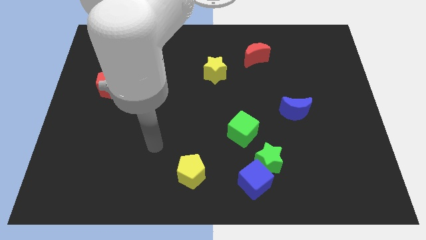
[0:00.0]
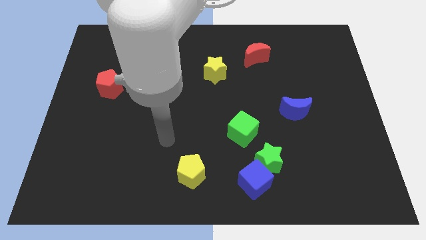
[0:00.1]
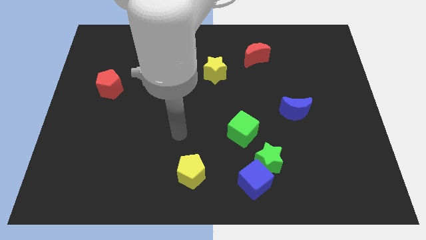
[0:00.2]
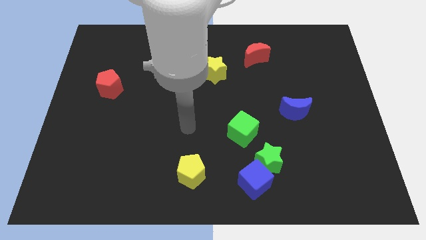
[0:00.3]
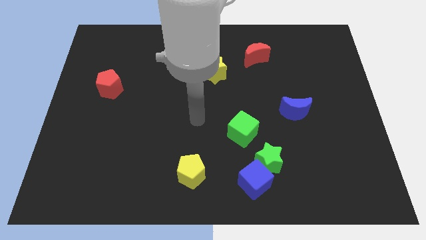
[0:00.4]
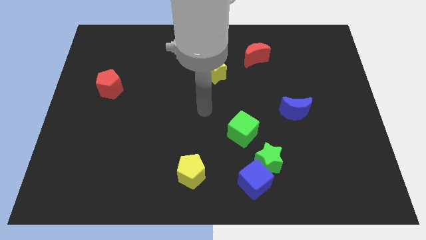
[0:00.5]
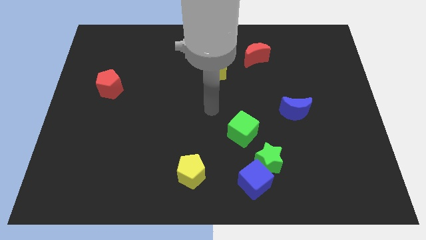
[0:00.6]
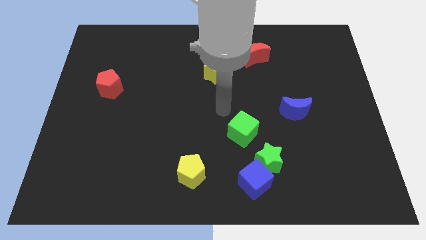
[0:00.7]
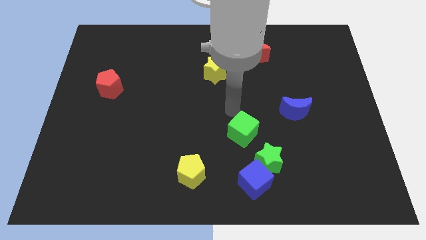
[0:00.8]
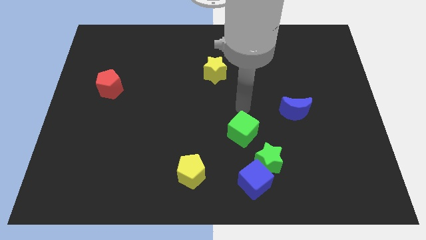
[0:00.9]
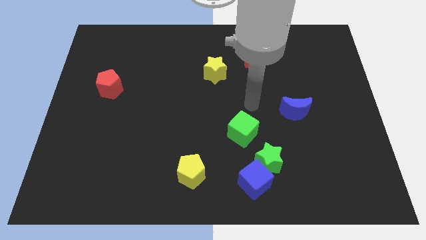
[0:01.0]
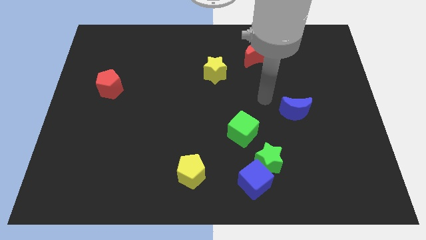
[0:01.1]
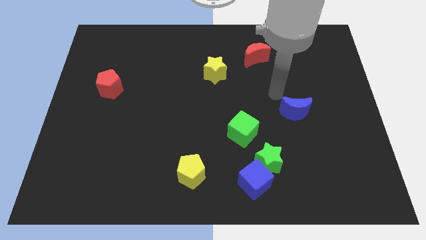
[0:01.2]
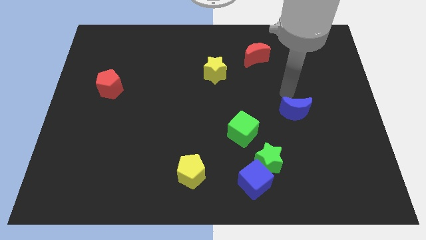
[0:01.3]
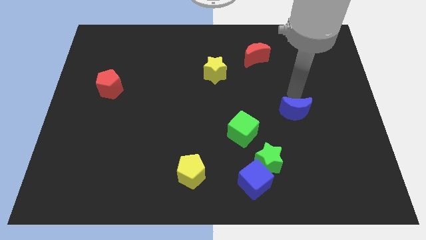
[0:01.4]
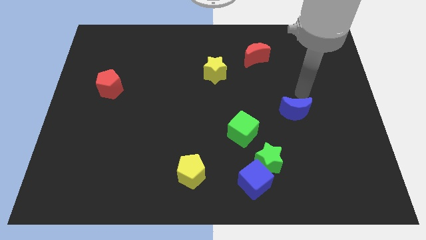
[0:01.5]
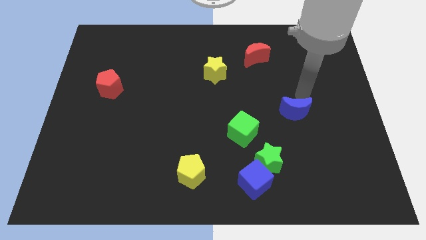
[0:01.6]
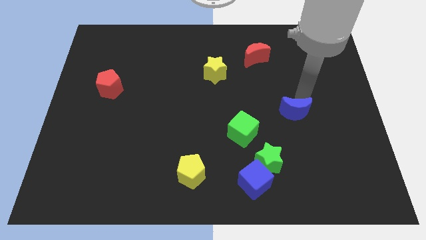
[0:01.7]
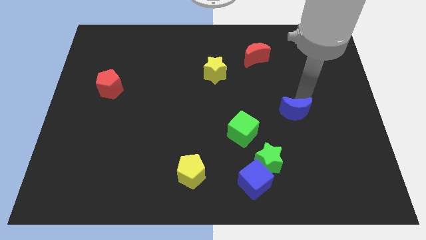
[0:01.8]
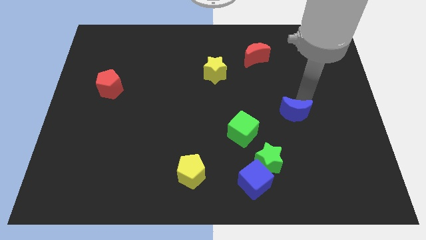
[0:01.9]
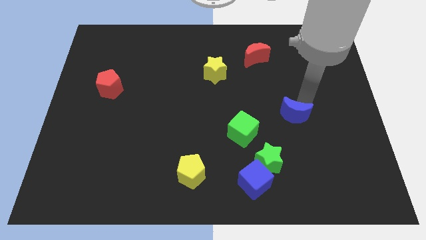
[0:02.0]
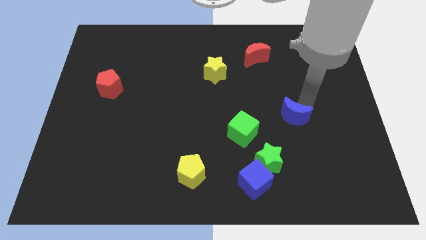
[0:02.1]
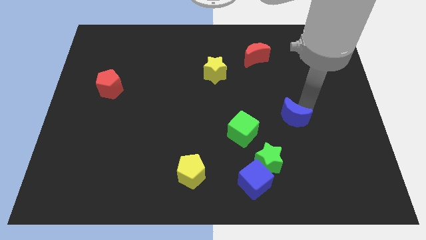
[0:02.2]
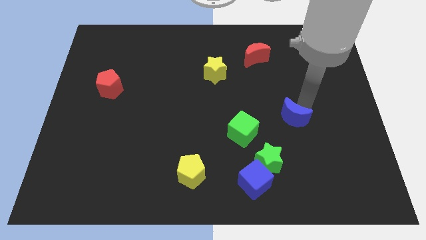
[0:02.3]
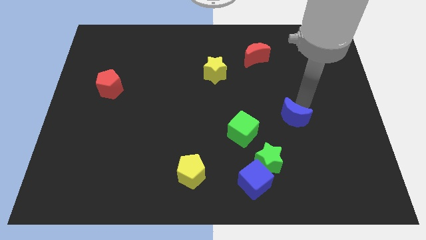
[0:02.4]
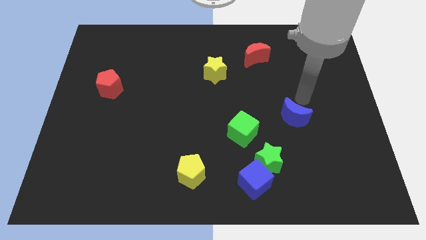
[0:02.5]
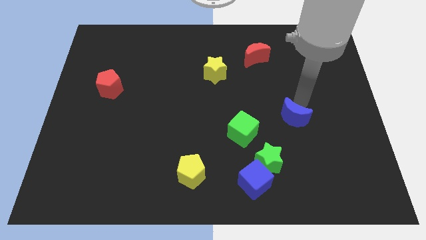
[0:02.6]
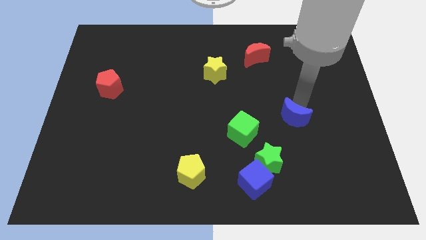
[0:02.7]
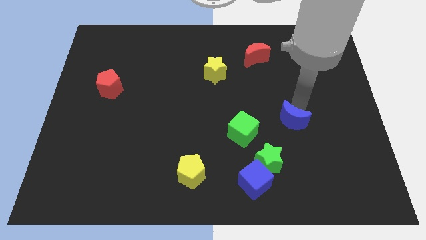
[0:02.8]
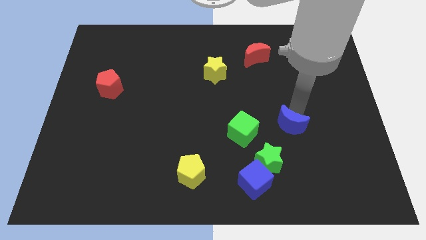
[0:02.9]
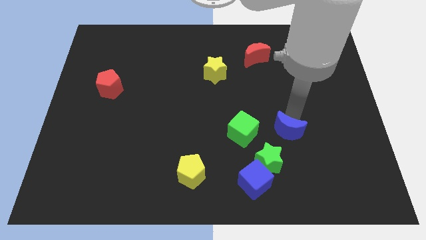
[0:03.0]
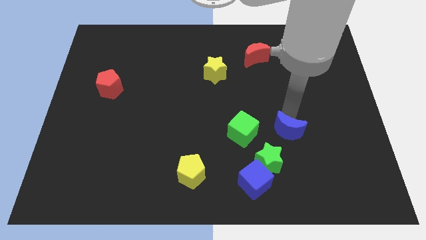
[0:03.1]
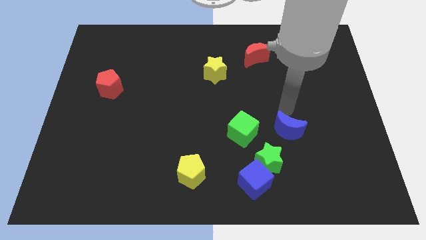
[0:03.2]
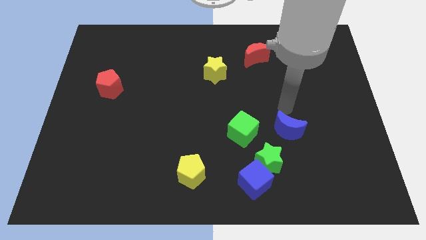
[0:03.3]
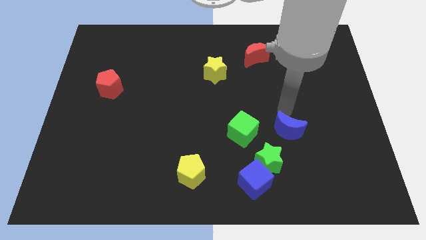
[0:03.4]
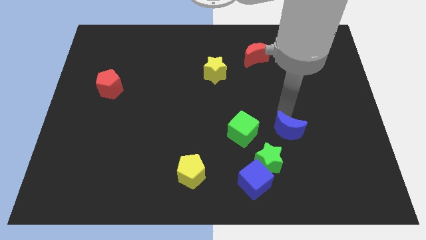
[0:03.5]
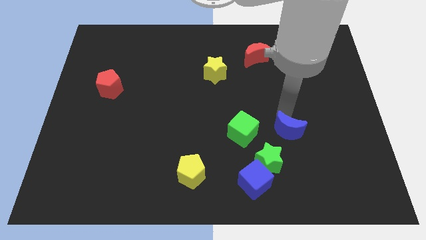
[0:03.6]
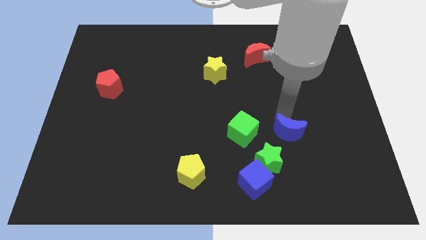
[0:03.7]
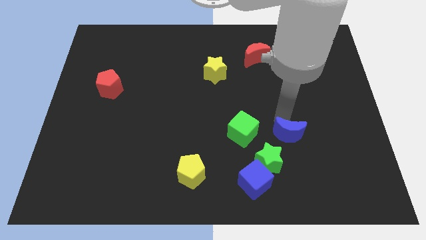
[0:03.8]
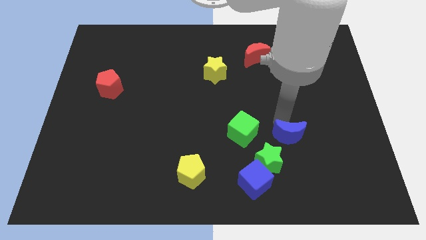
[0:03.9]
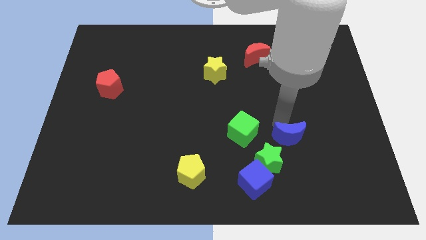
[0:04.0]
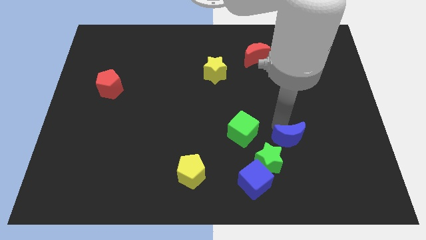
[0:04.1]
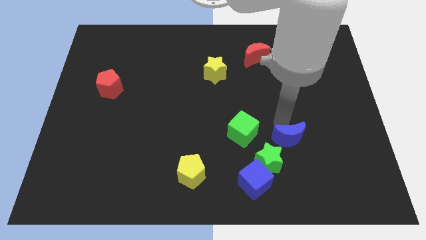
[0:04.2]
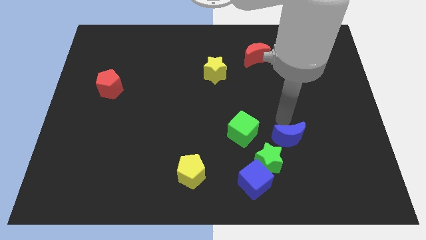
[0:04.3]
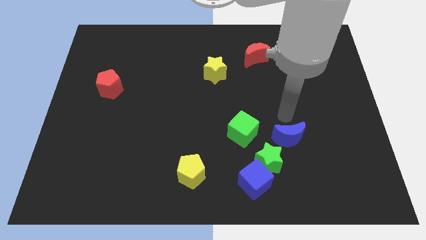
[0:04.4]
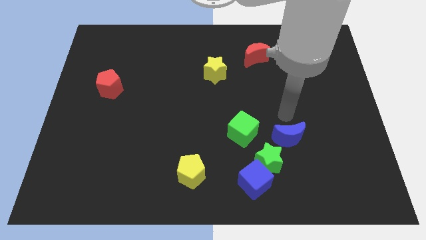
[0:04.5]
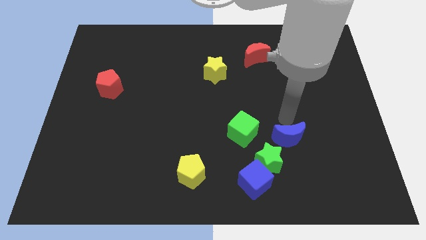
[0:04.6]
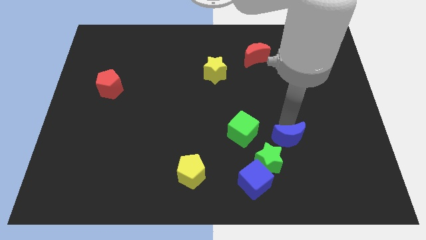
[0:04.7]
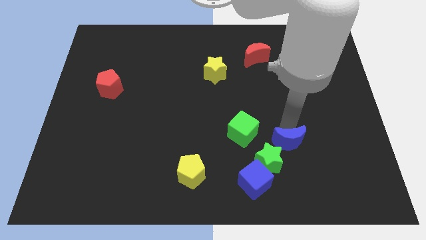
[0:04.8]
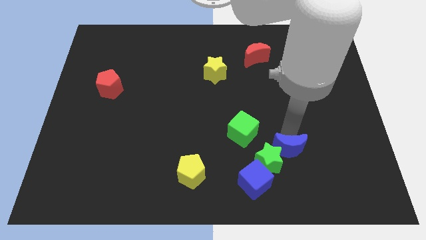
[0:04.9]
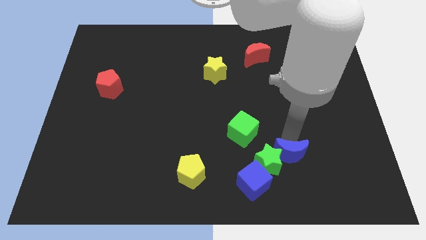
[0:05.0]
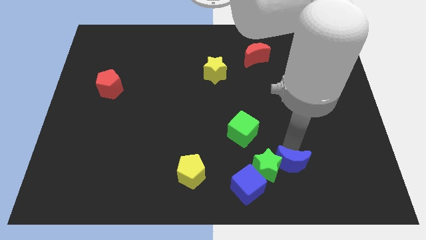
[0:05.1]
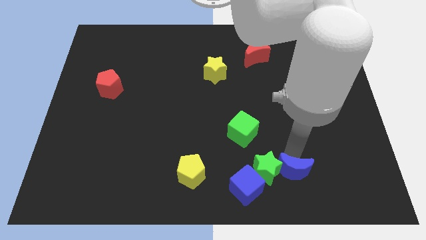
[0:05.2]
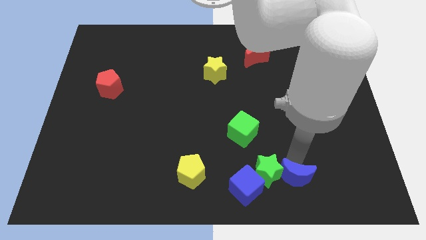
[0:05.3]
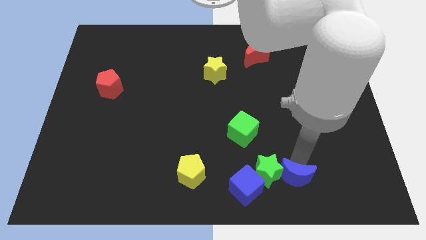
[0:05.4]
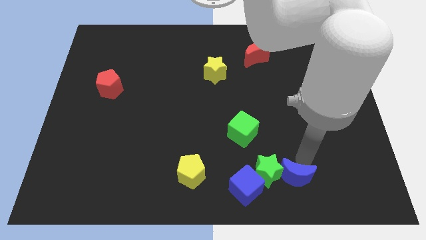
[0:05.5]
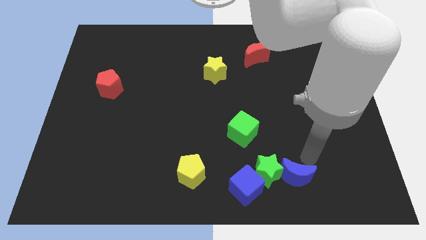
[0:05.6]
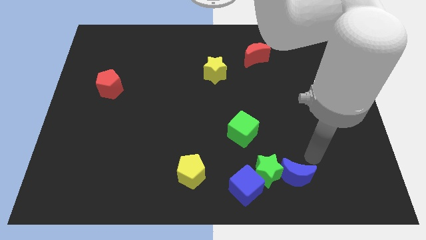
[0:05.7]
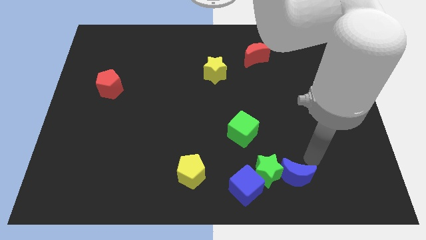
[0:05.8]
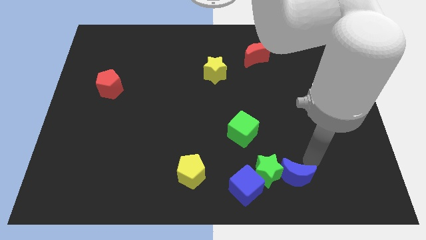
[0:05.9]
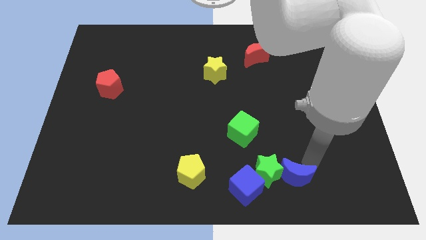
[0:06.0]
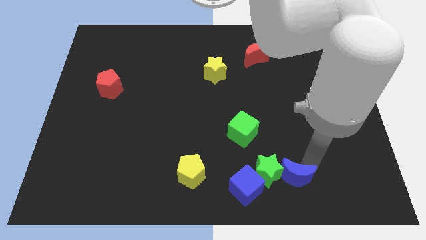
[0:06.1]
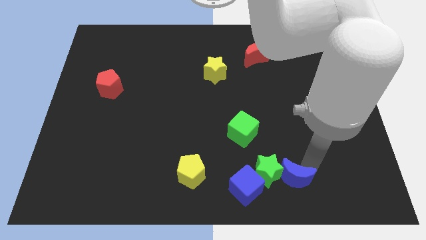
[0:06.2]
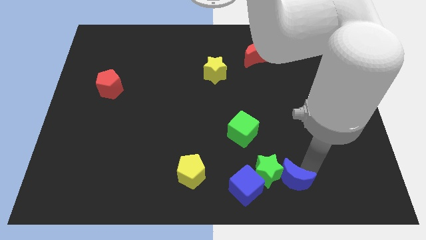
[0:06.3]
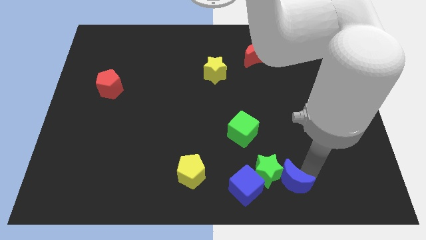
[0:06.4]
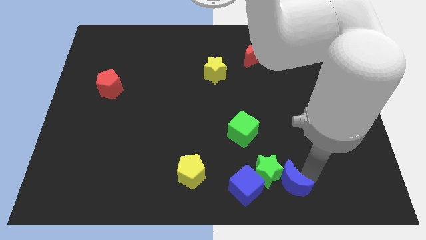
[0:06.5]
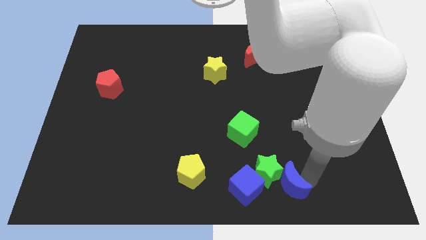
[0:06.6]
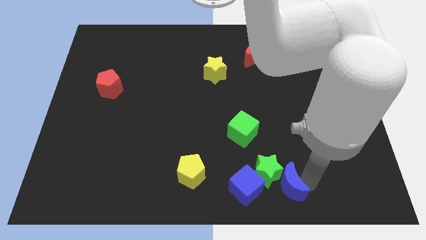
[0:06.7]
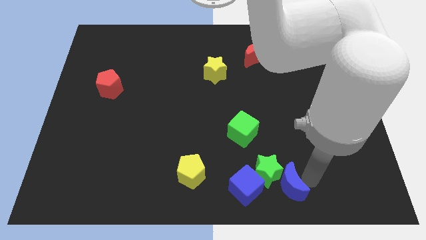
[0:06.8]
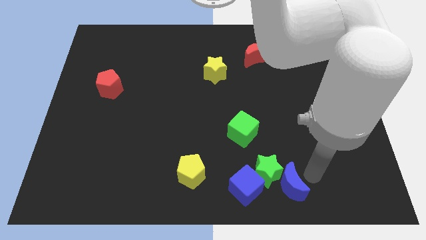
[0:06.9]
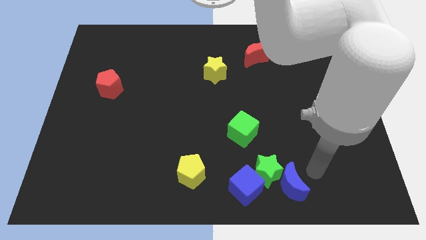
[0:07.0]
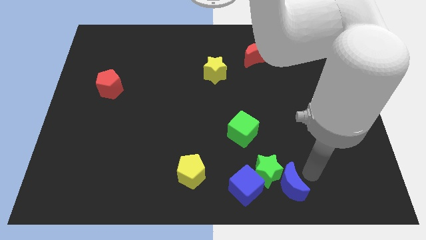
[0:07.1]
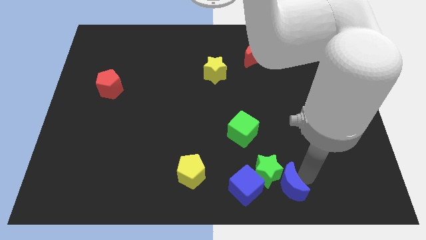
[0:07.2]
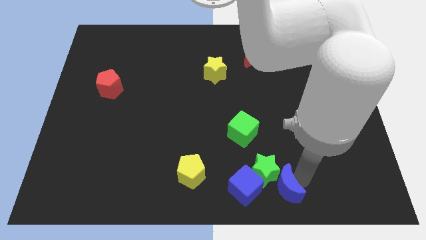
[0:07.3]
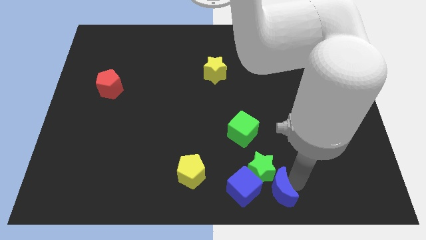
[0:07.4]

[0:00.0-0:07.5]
slide the blue moon to the bottom side
